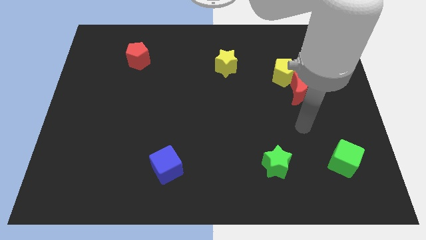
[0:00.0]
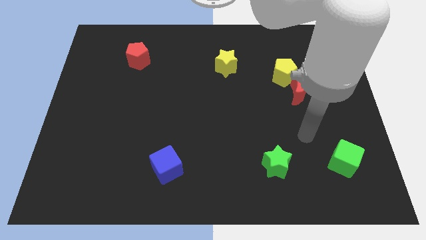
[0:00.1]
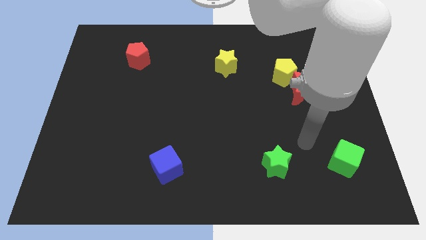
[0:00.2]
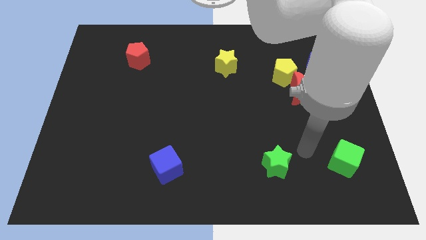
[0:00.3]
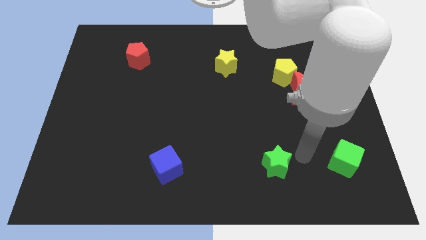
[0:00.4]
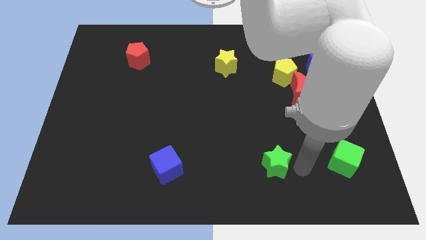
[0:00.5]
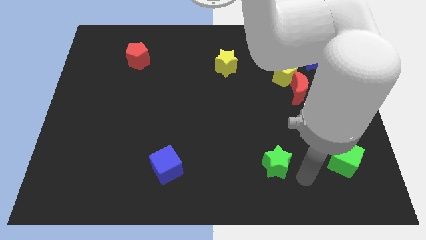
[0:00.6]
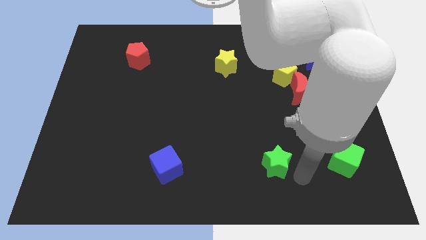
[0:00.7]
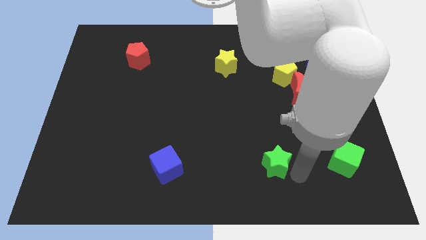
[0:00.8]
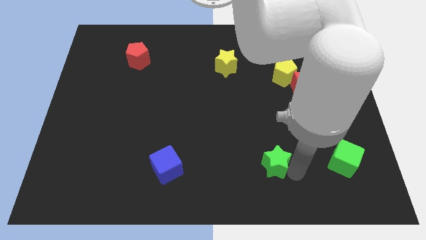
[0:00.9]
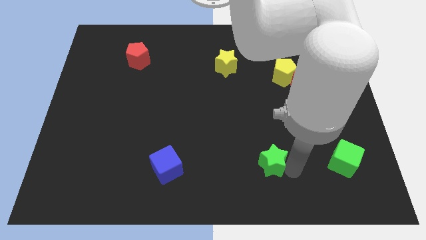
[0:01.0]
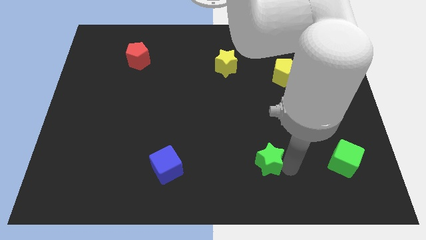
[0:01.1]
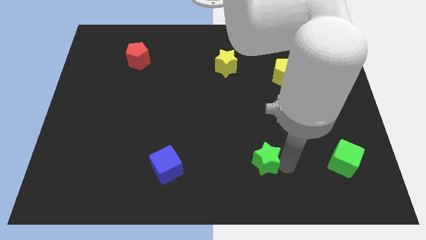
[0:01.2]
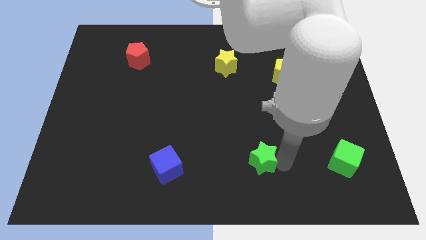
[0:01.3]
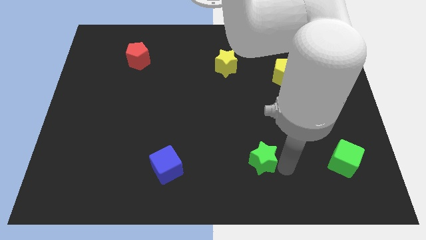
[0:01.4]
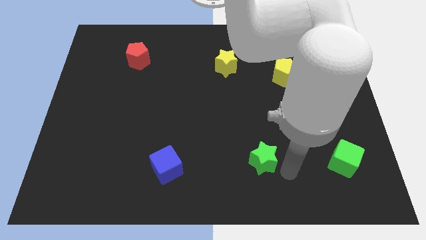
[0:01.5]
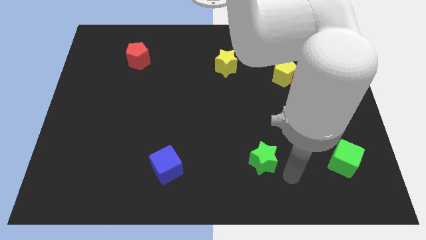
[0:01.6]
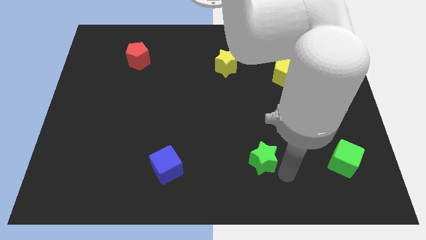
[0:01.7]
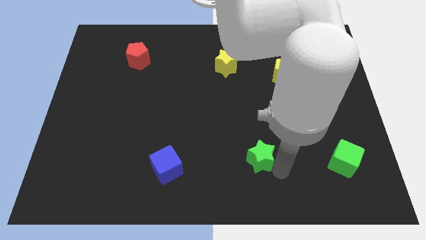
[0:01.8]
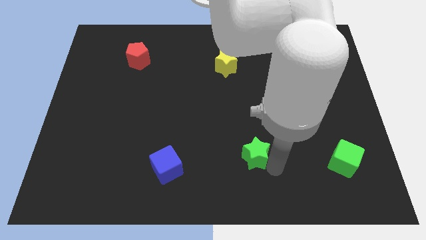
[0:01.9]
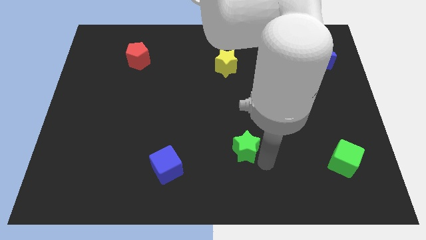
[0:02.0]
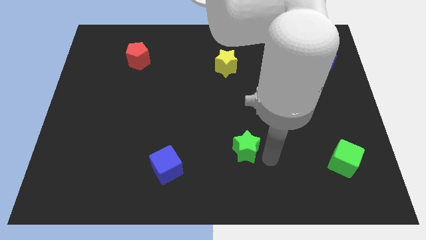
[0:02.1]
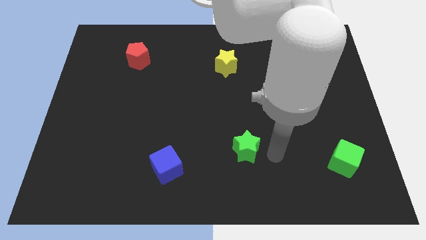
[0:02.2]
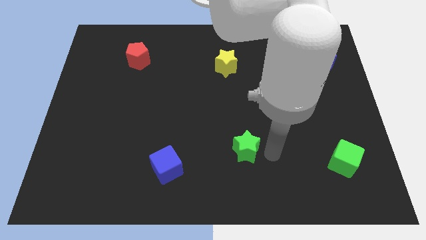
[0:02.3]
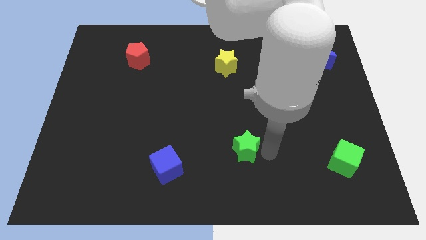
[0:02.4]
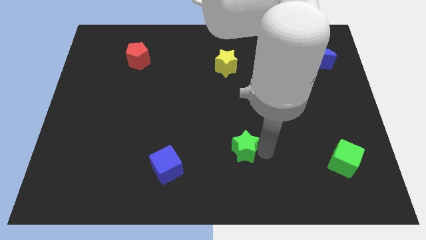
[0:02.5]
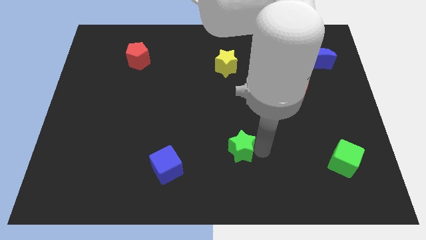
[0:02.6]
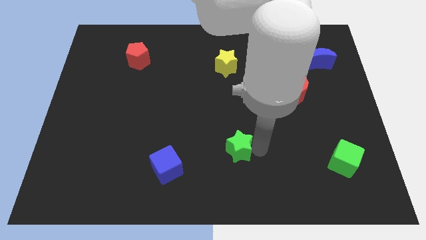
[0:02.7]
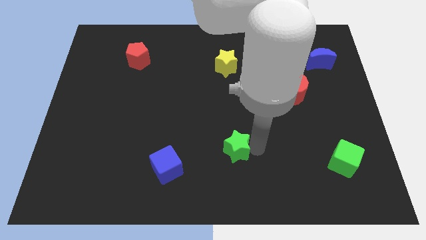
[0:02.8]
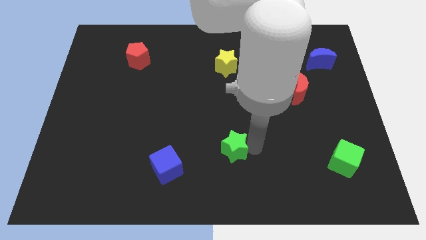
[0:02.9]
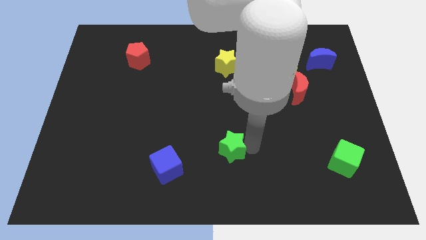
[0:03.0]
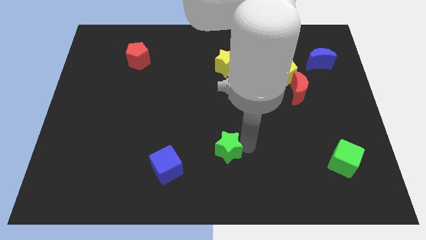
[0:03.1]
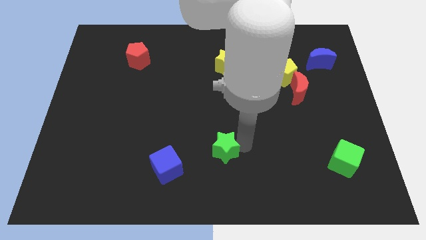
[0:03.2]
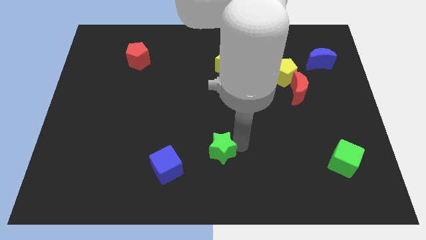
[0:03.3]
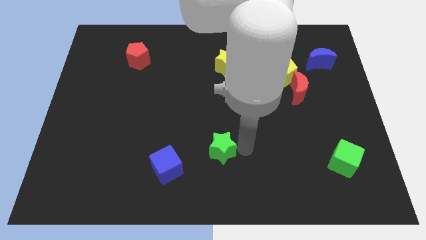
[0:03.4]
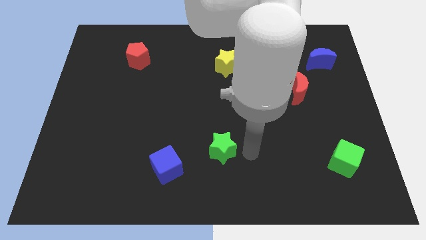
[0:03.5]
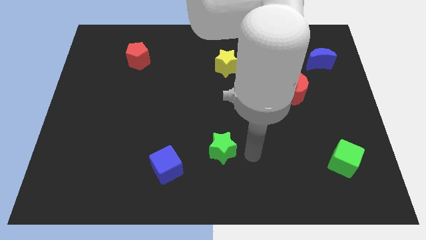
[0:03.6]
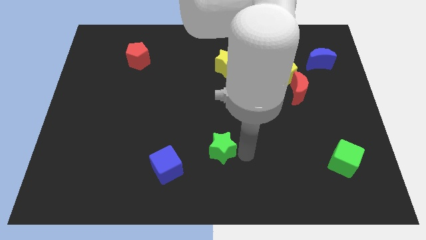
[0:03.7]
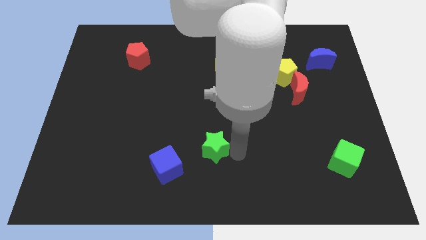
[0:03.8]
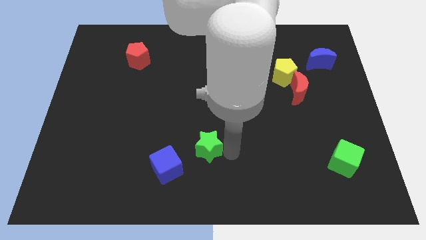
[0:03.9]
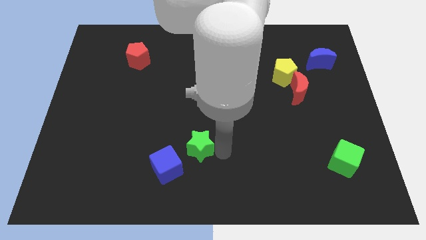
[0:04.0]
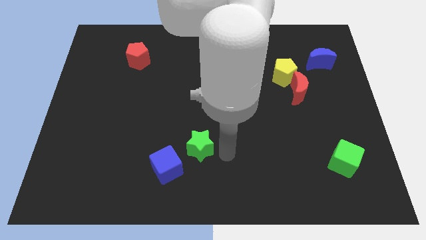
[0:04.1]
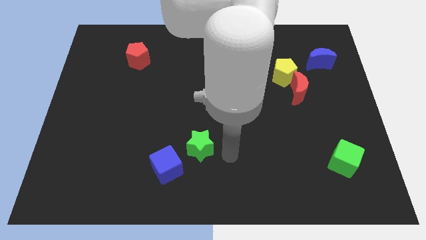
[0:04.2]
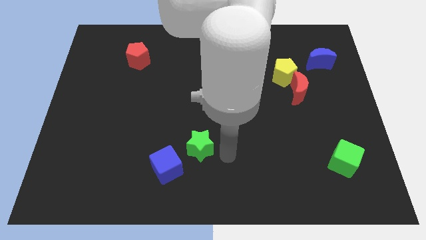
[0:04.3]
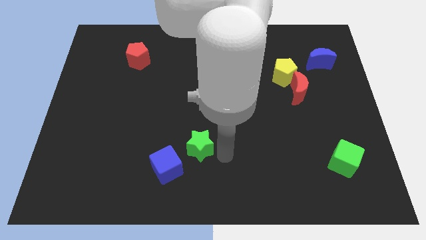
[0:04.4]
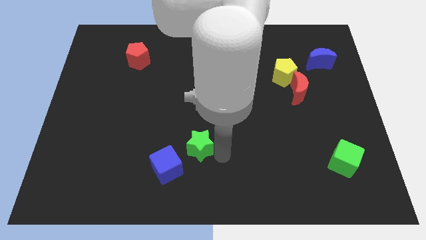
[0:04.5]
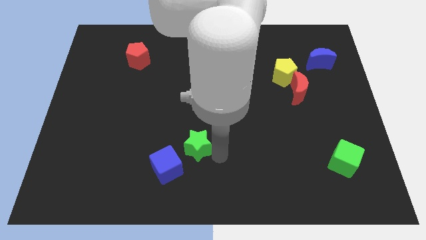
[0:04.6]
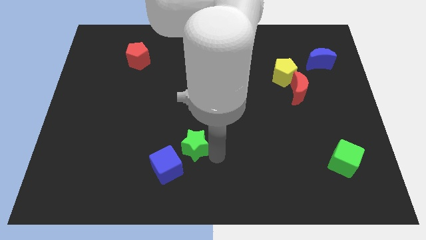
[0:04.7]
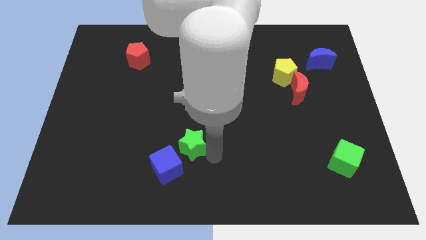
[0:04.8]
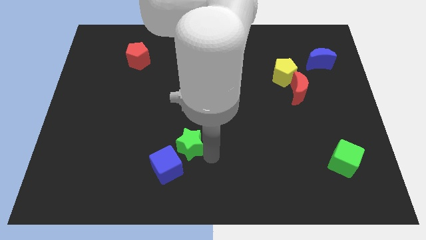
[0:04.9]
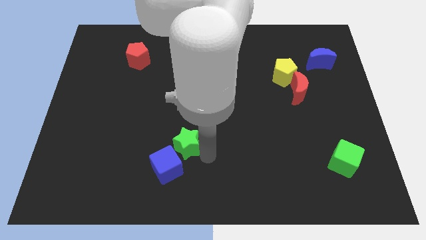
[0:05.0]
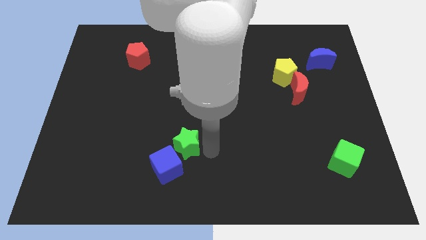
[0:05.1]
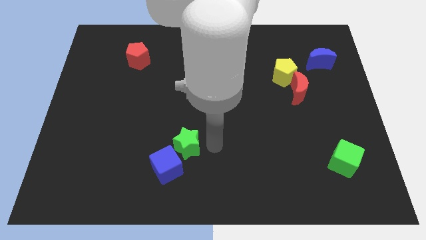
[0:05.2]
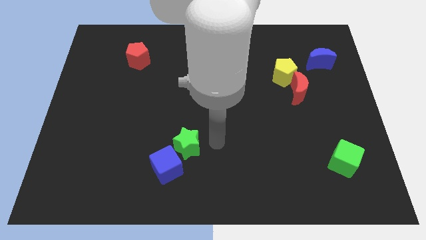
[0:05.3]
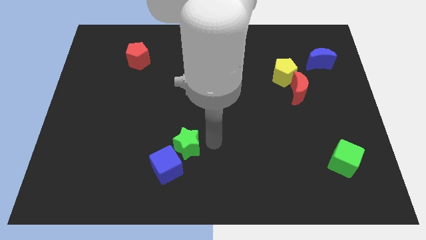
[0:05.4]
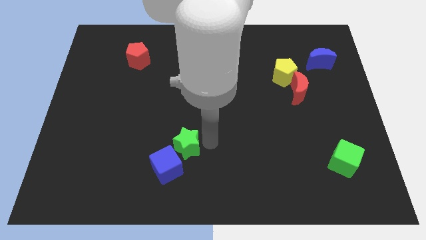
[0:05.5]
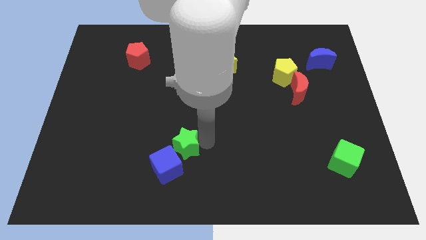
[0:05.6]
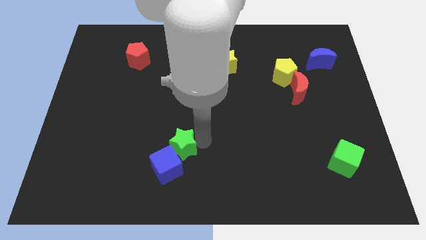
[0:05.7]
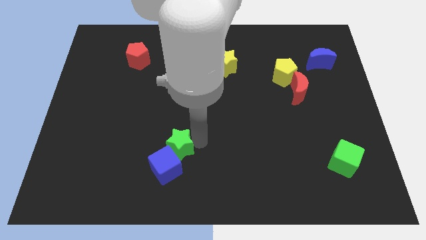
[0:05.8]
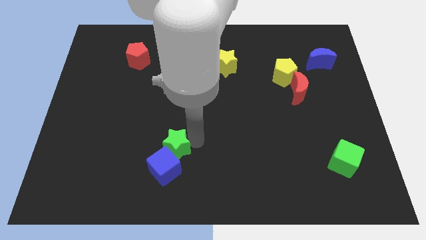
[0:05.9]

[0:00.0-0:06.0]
push the green star left

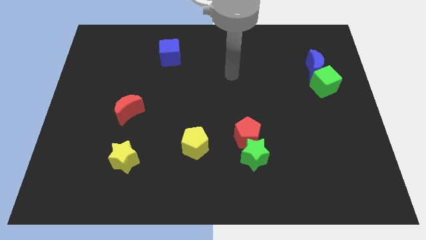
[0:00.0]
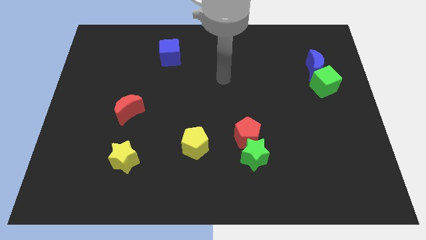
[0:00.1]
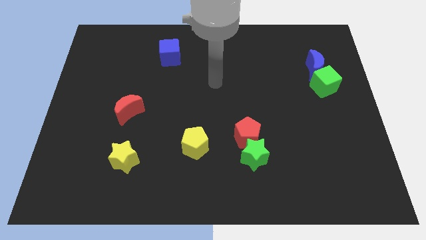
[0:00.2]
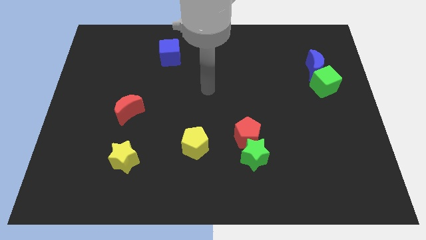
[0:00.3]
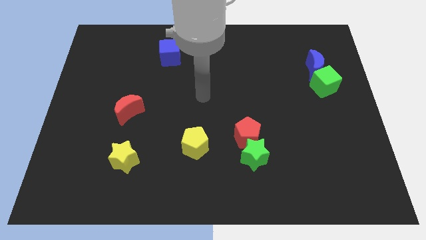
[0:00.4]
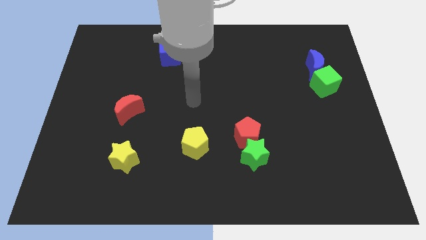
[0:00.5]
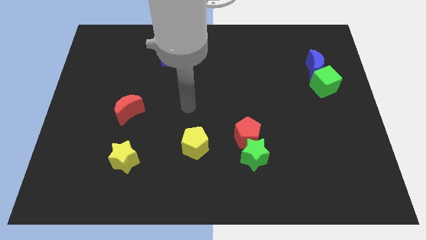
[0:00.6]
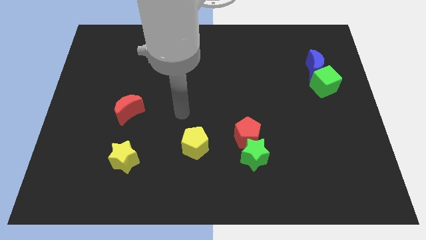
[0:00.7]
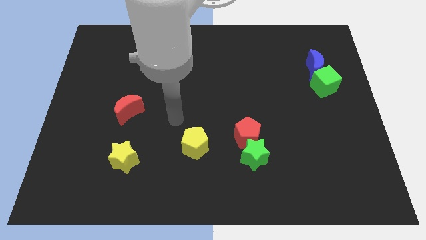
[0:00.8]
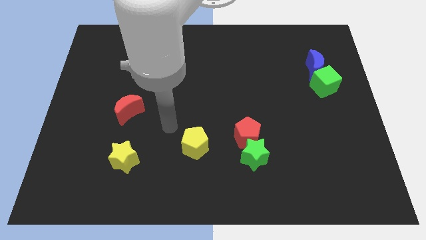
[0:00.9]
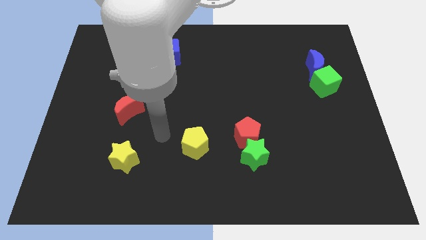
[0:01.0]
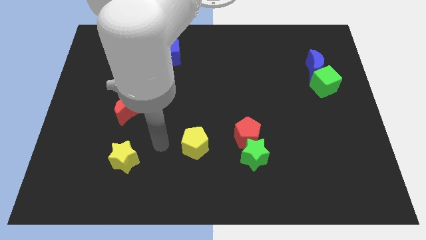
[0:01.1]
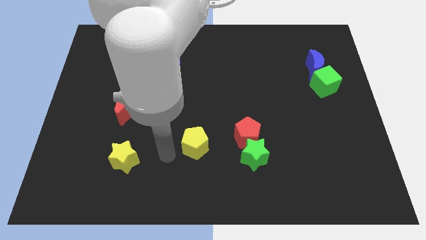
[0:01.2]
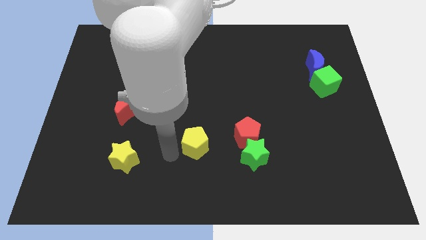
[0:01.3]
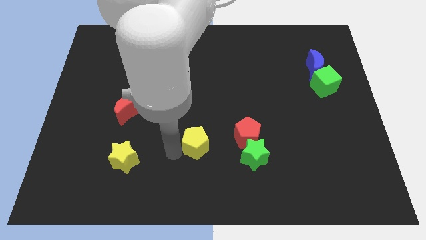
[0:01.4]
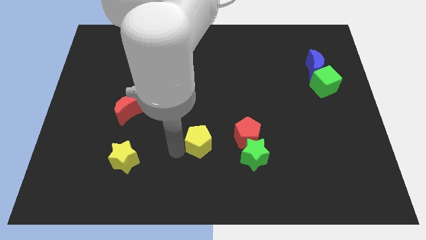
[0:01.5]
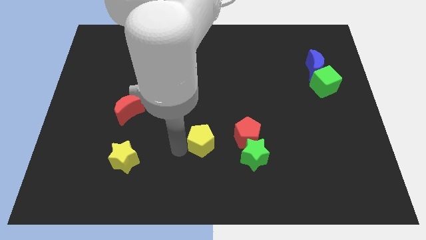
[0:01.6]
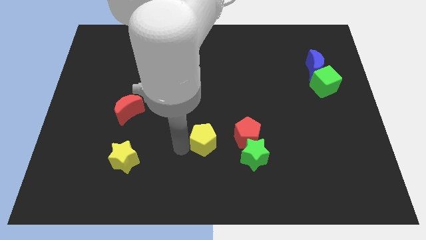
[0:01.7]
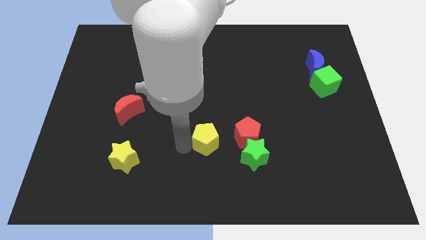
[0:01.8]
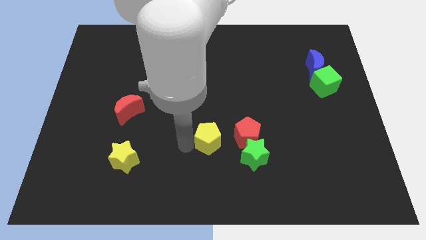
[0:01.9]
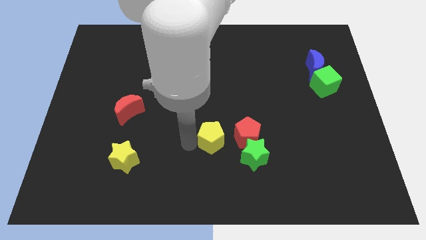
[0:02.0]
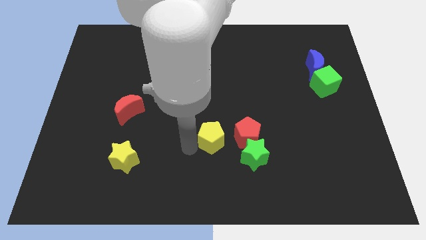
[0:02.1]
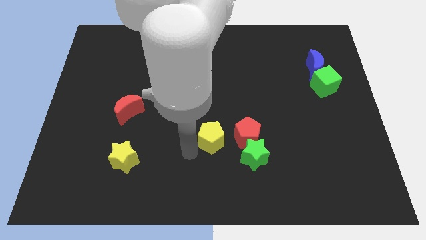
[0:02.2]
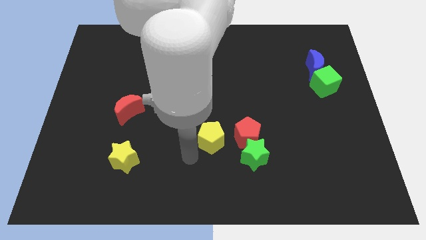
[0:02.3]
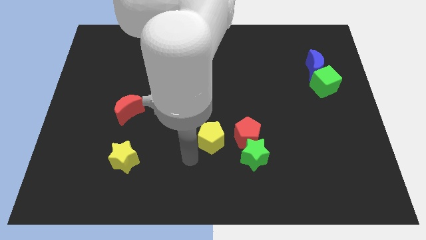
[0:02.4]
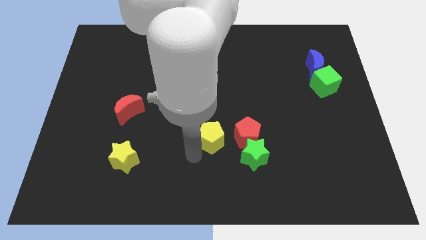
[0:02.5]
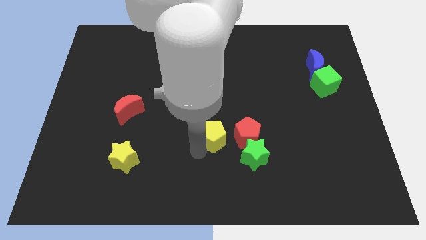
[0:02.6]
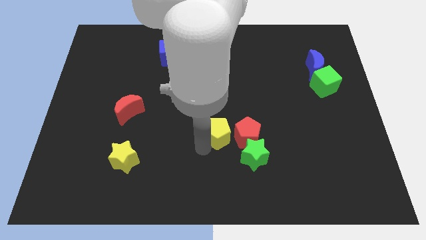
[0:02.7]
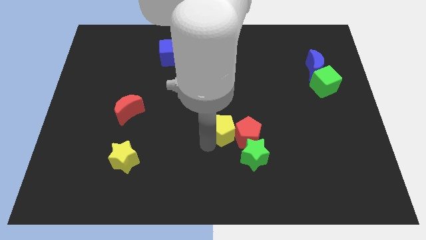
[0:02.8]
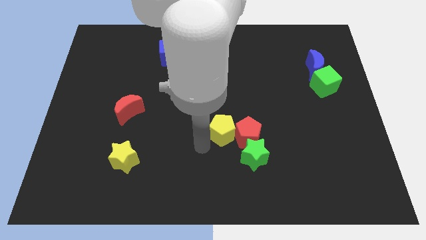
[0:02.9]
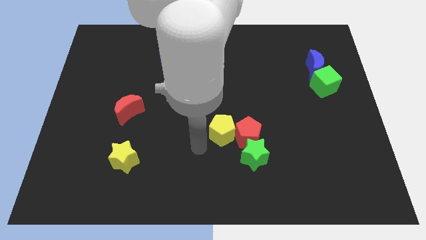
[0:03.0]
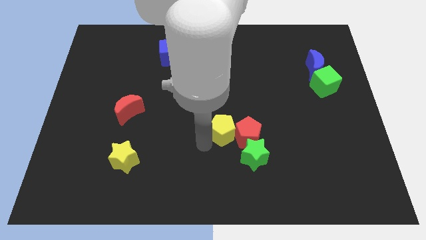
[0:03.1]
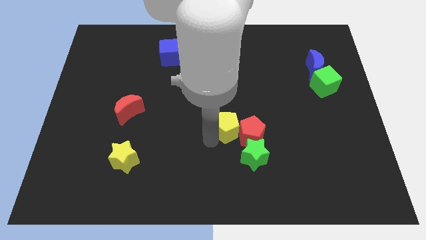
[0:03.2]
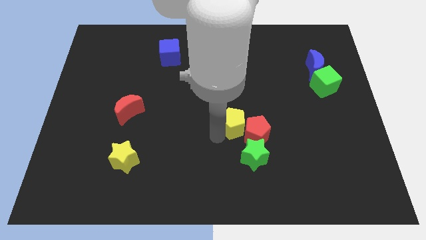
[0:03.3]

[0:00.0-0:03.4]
slide the yellow pentagon somewhat right
